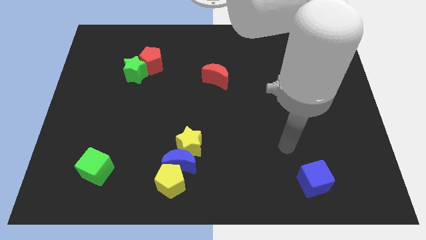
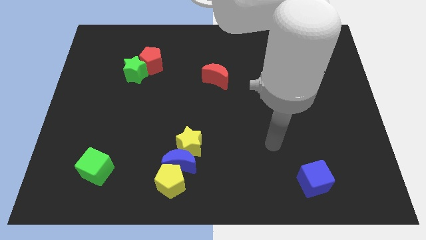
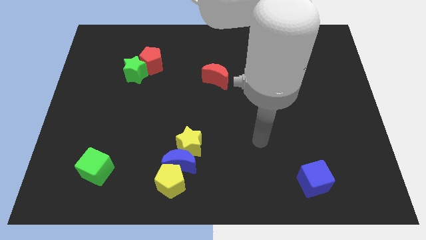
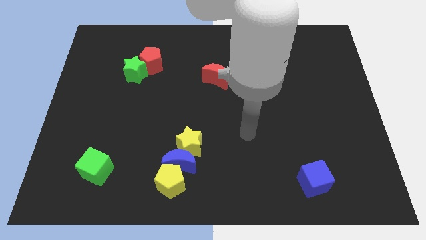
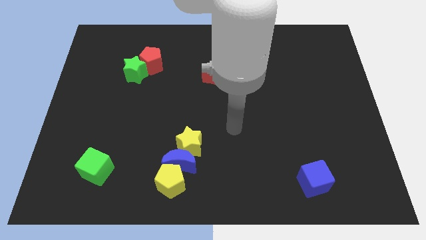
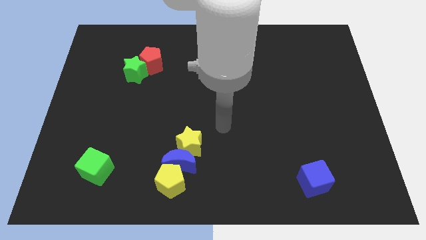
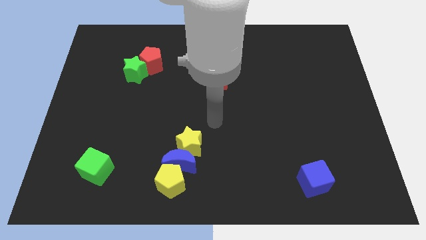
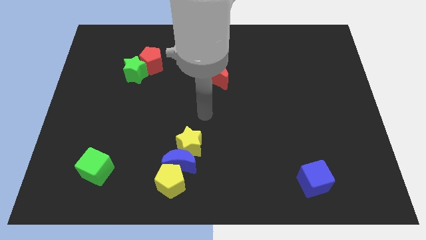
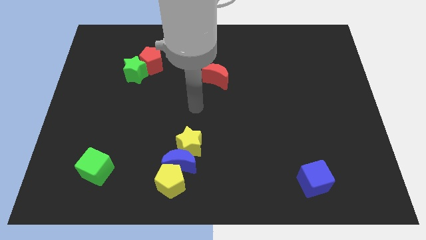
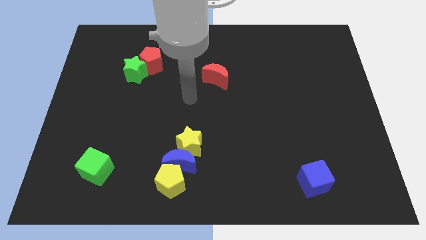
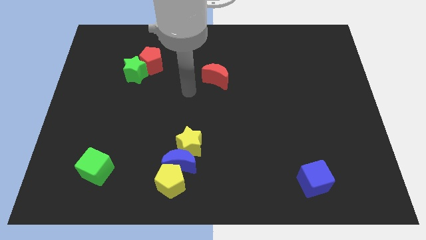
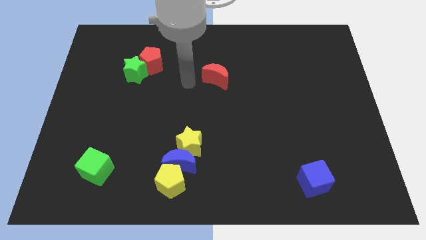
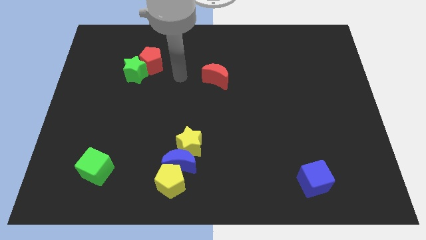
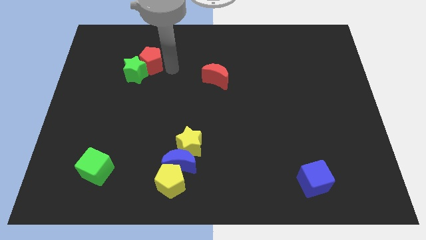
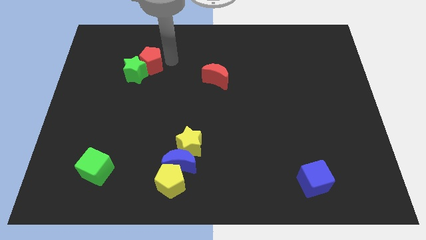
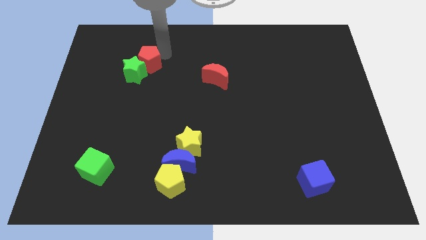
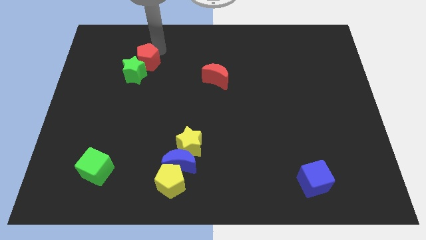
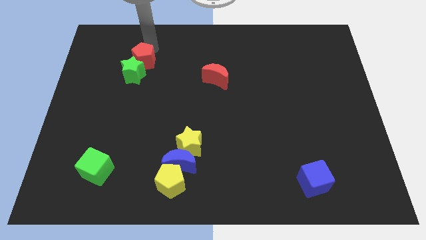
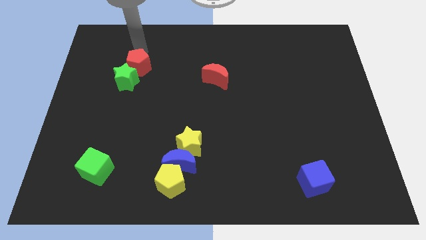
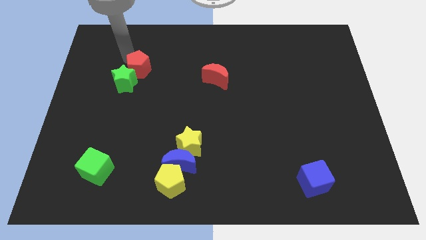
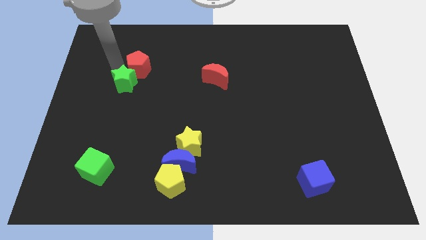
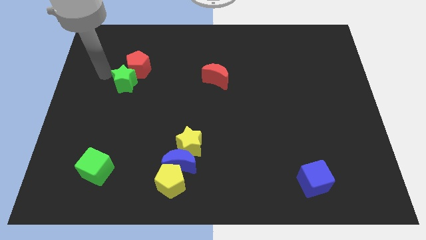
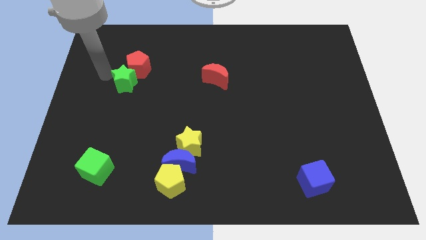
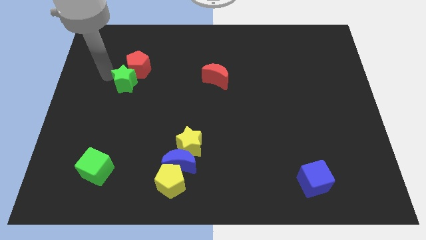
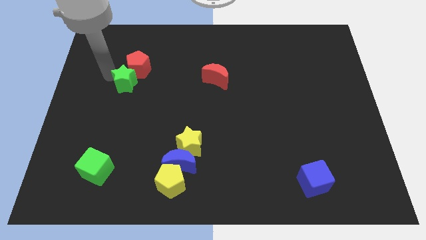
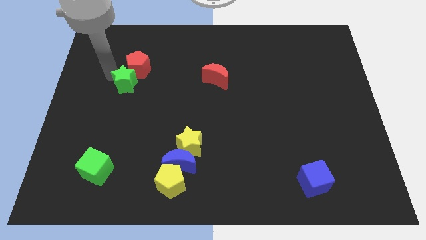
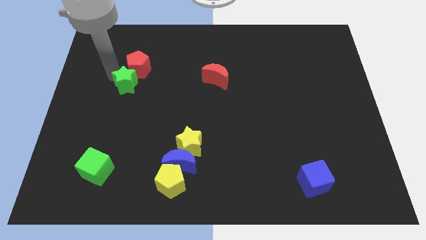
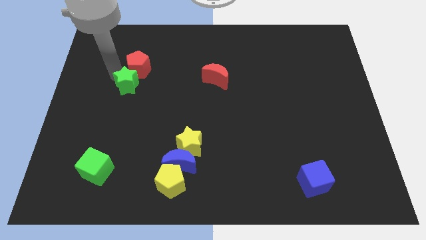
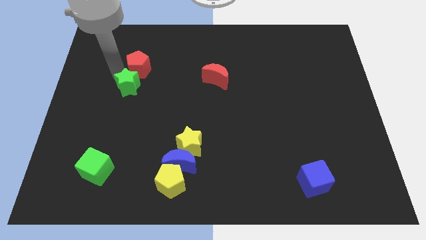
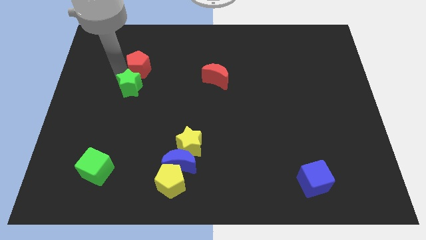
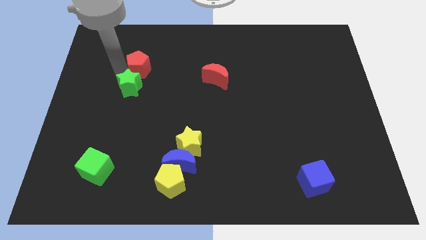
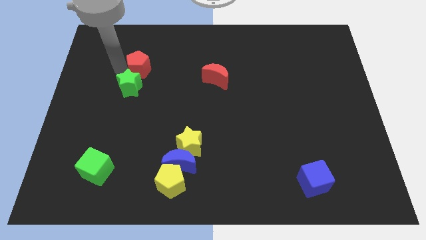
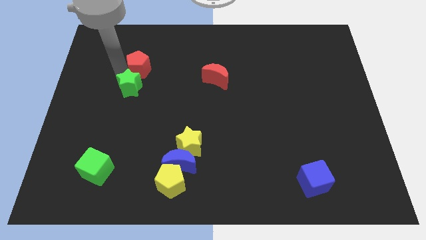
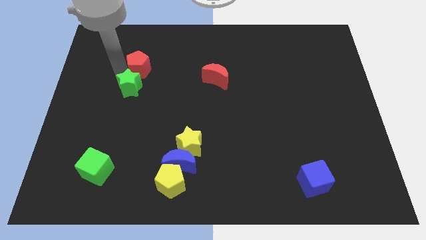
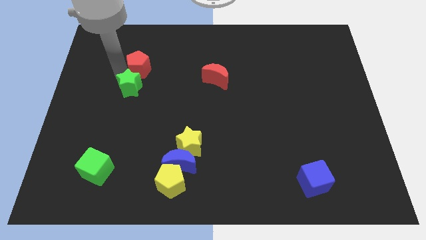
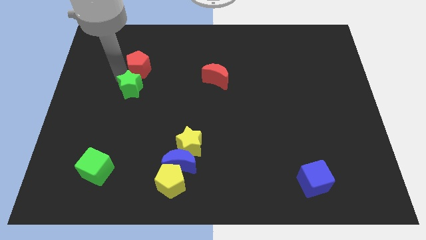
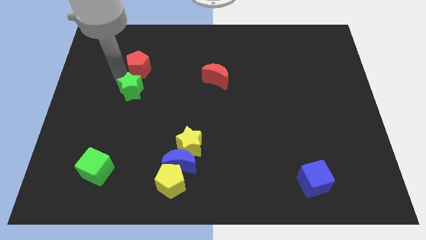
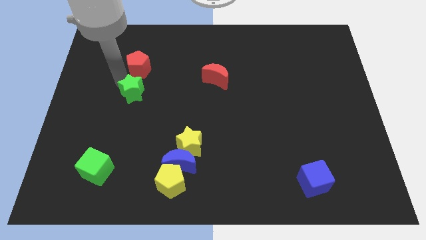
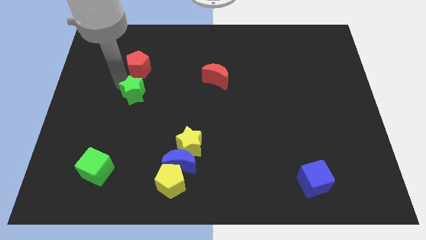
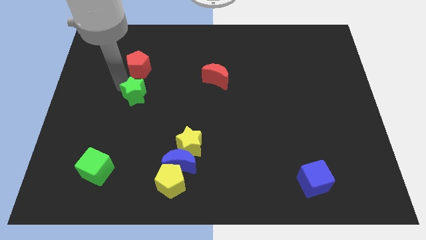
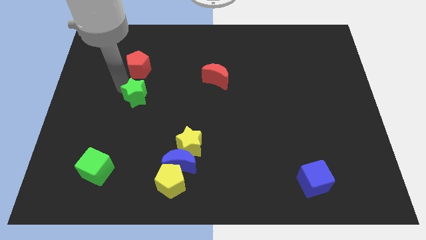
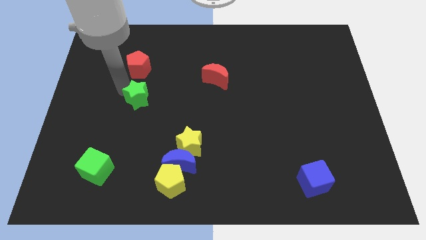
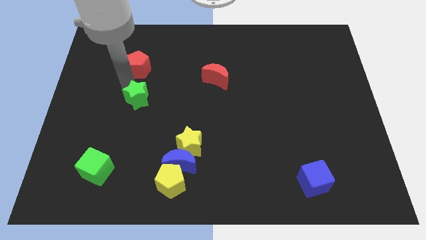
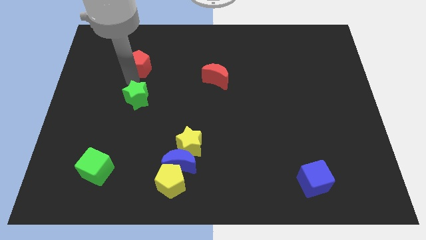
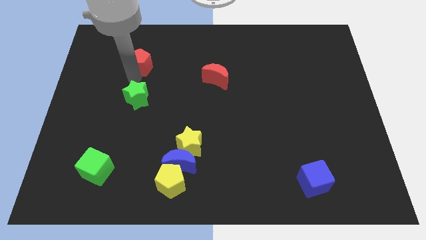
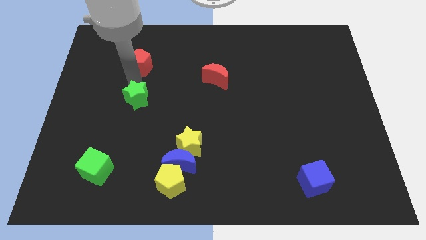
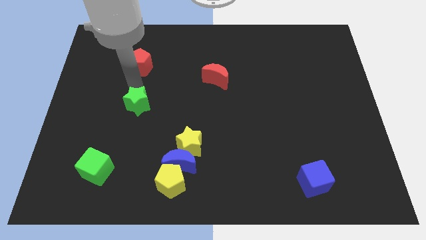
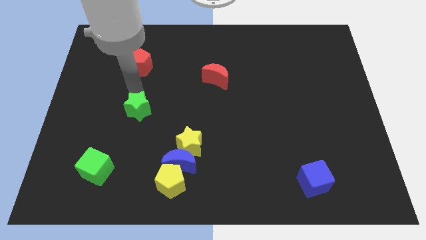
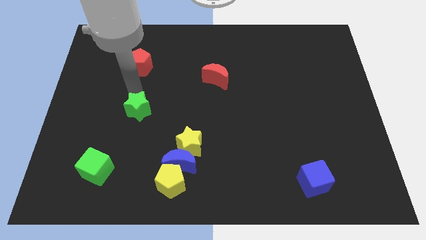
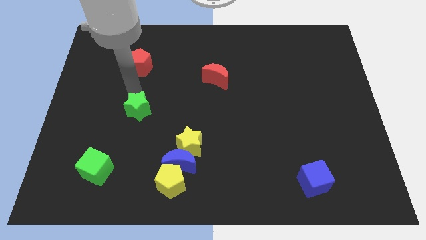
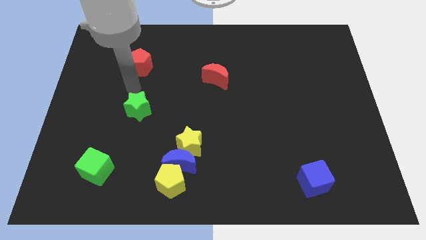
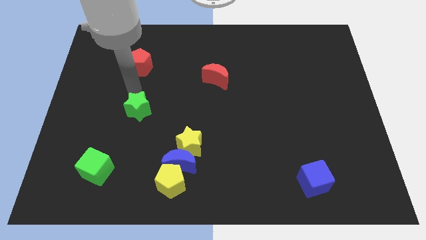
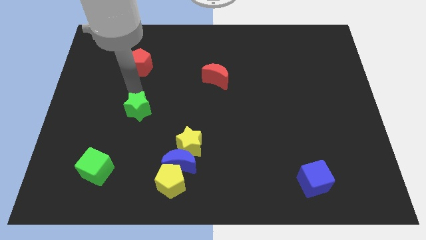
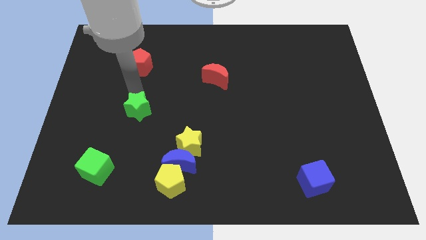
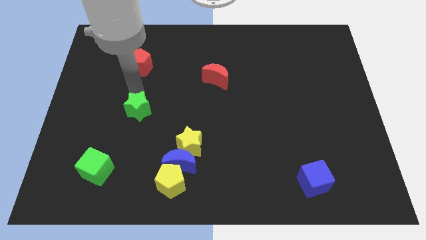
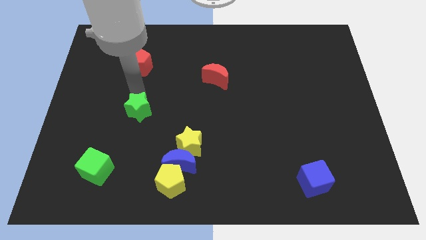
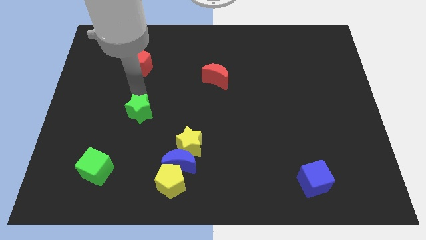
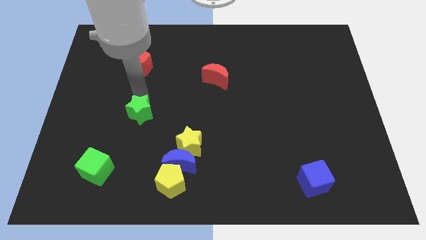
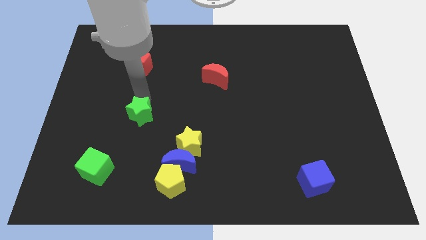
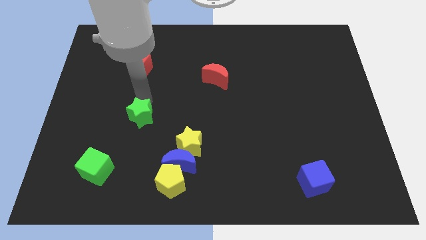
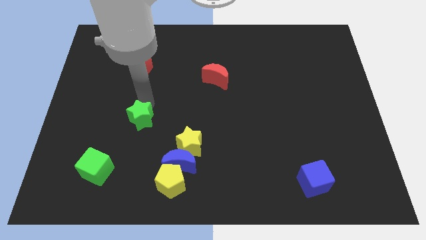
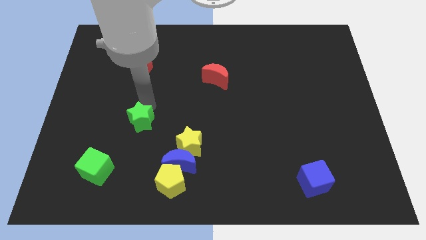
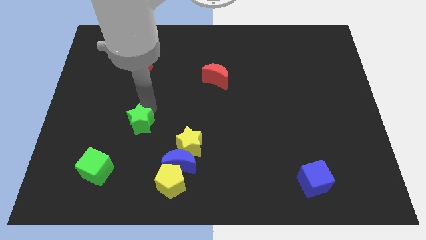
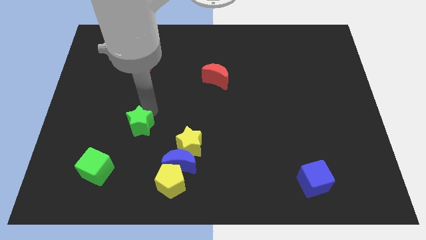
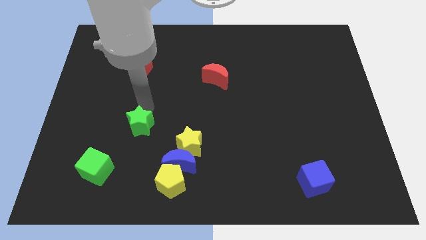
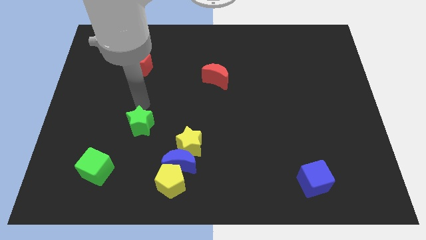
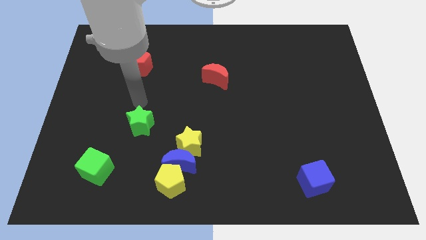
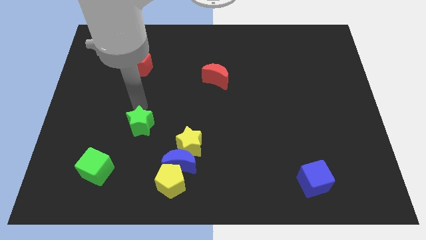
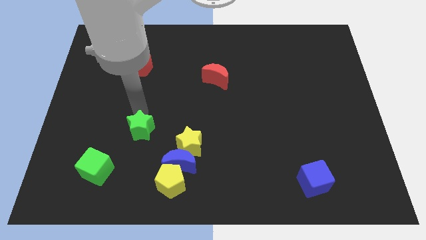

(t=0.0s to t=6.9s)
slide the green star just left of the yellow star

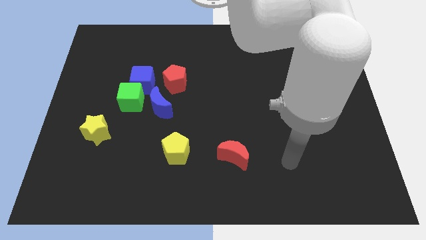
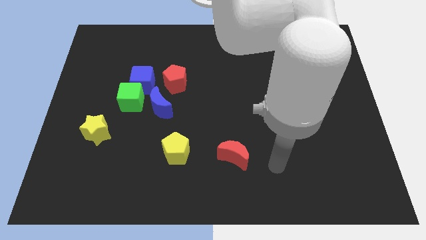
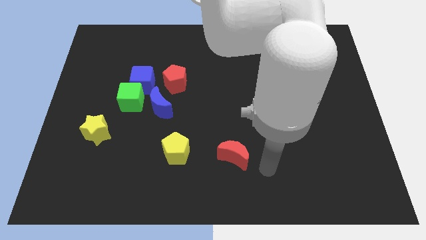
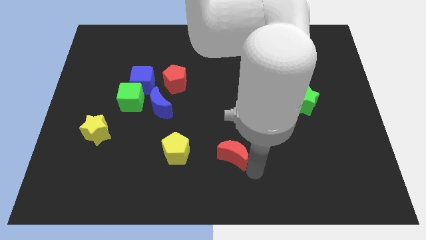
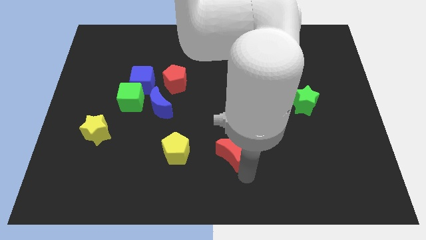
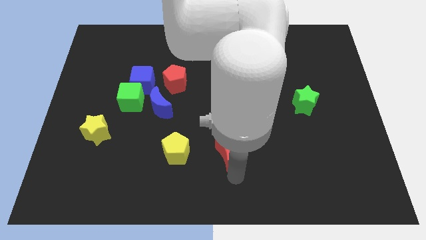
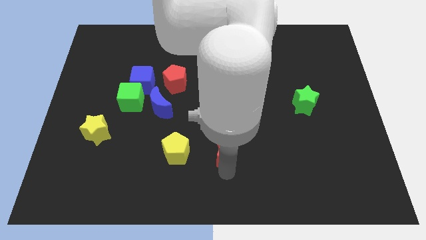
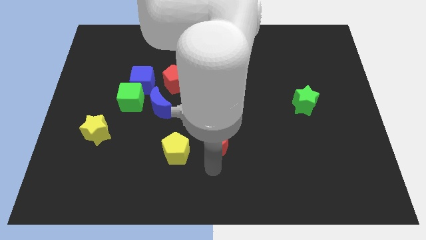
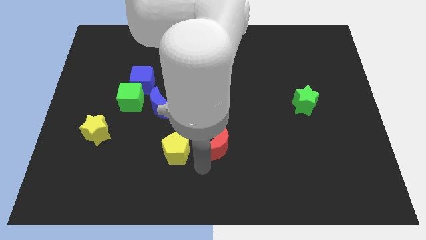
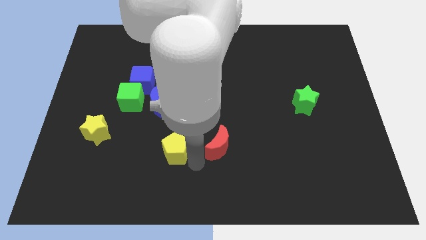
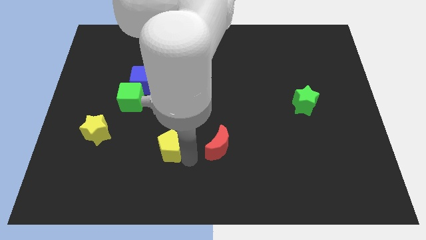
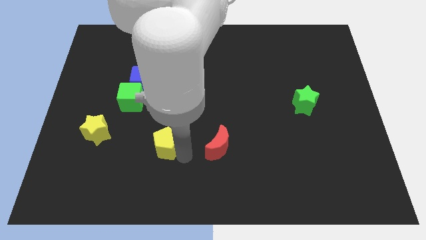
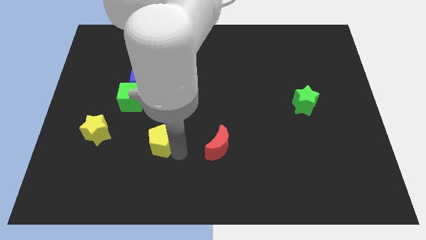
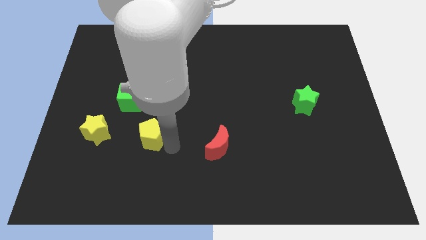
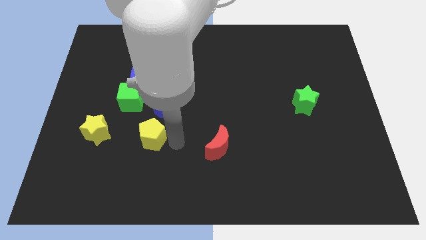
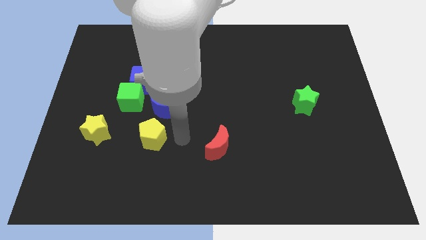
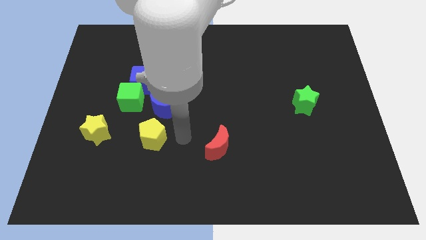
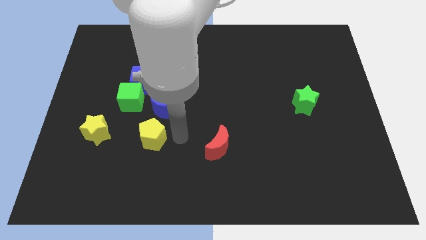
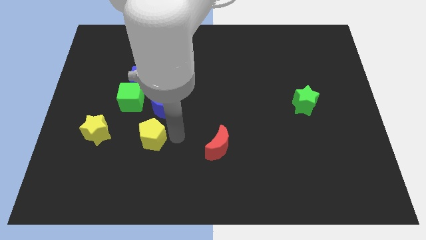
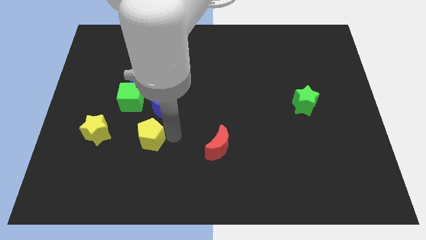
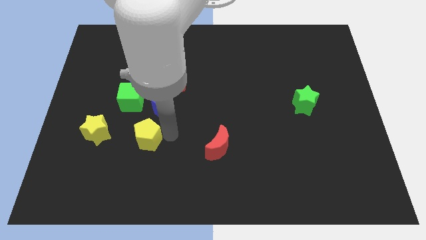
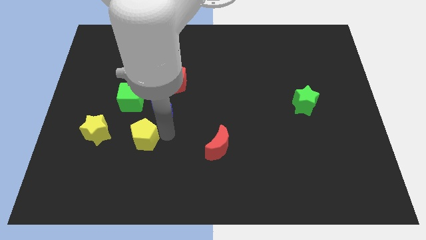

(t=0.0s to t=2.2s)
move the yellow pentagon to the bottom of the green cube
